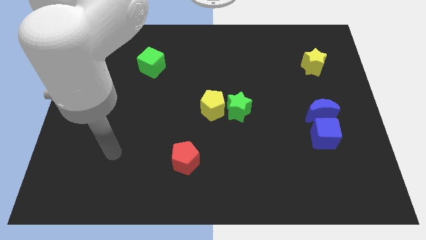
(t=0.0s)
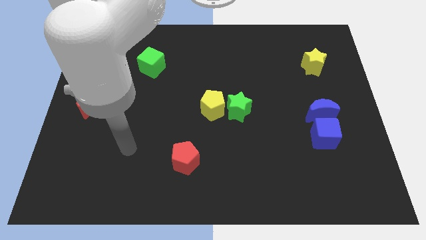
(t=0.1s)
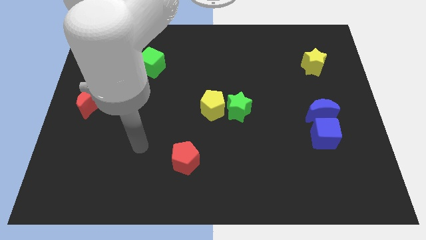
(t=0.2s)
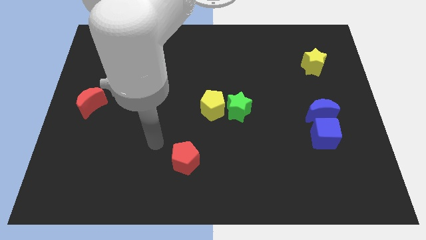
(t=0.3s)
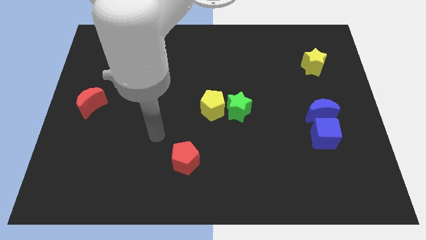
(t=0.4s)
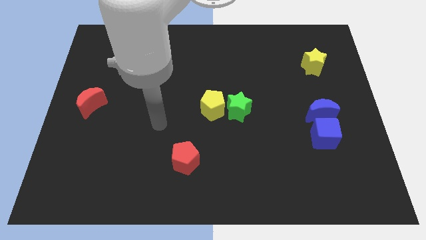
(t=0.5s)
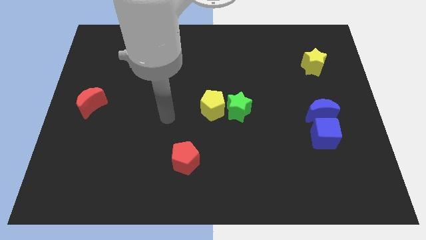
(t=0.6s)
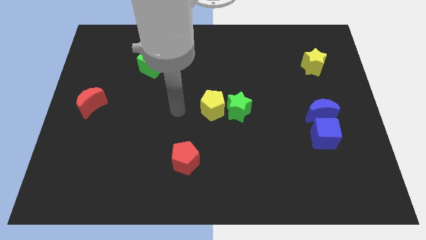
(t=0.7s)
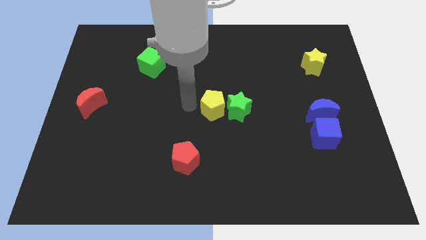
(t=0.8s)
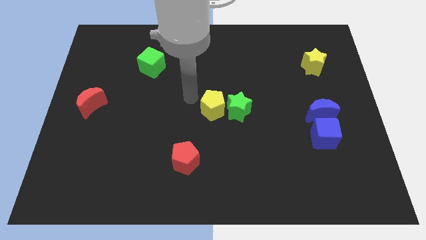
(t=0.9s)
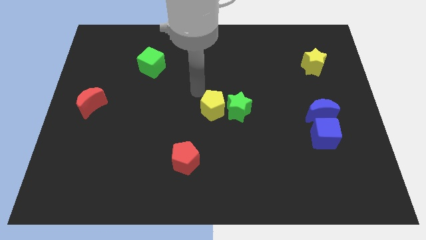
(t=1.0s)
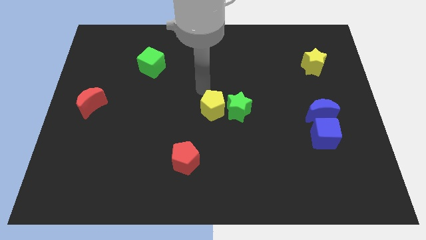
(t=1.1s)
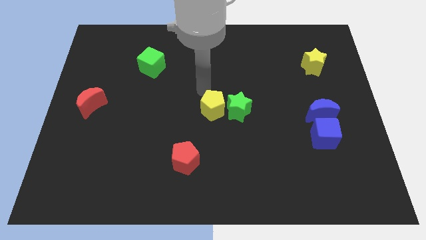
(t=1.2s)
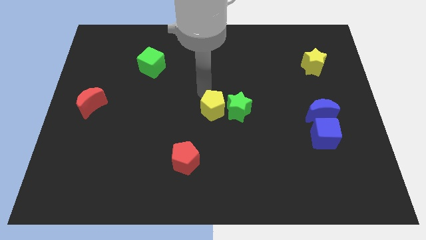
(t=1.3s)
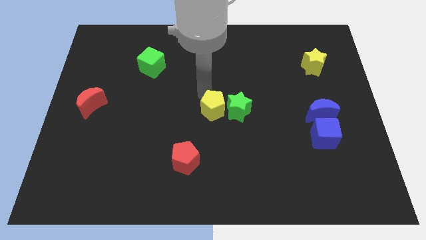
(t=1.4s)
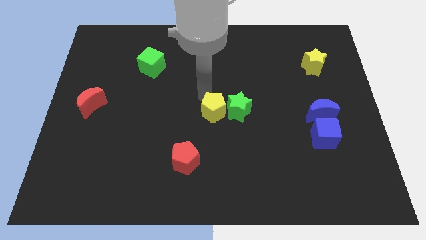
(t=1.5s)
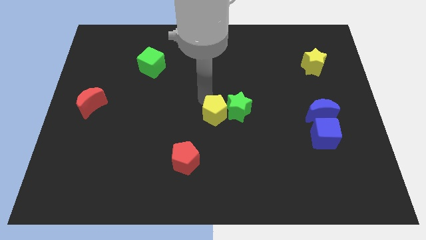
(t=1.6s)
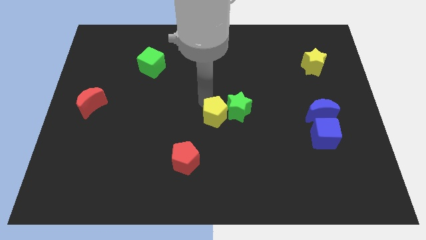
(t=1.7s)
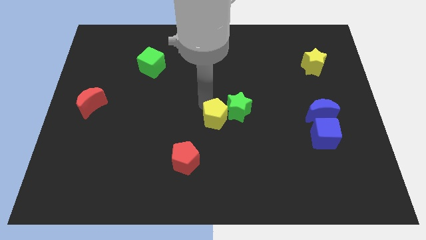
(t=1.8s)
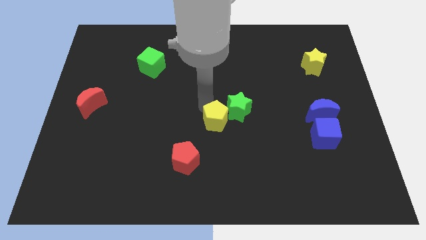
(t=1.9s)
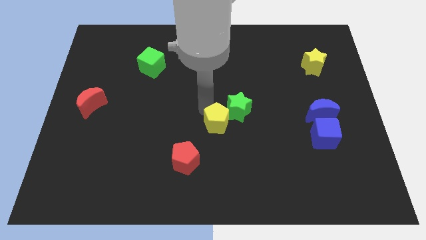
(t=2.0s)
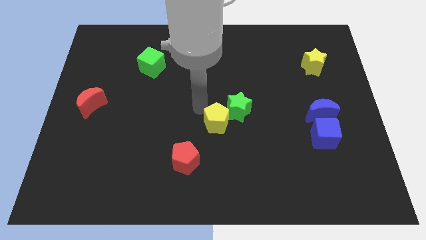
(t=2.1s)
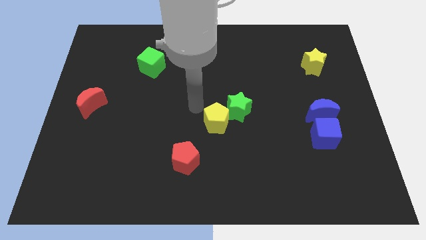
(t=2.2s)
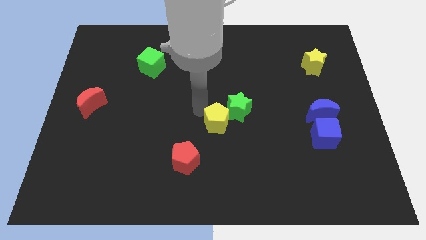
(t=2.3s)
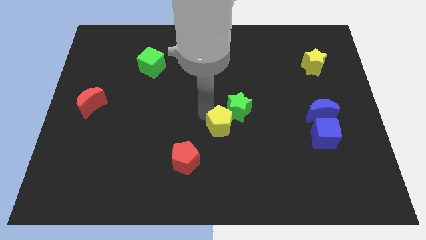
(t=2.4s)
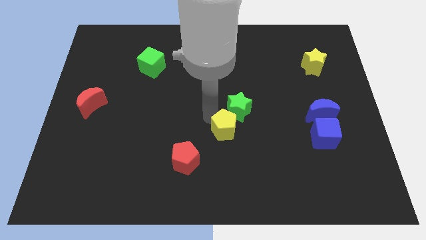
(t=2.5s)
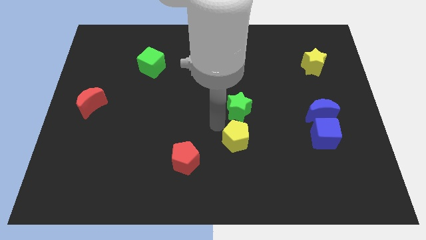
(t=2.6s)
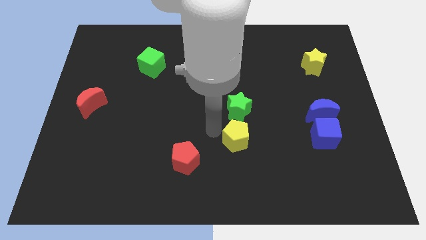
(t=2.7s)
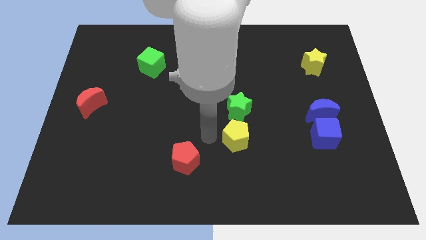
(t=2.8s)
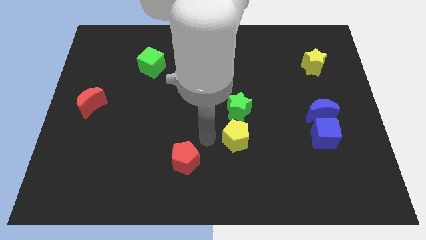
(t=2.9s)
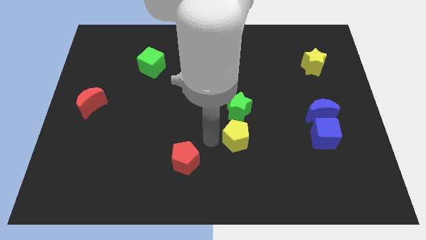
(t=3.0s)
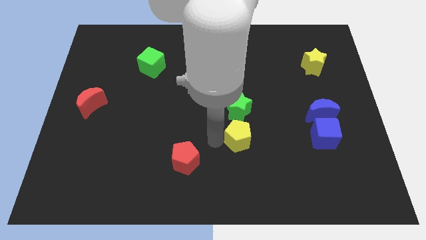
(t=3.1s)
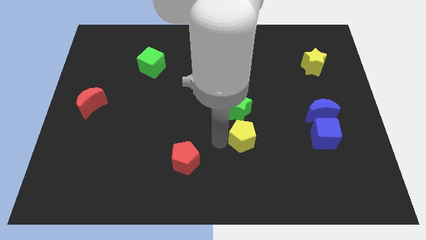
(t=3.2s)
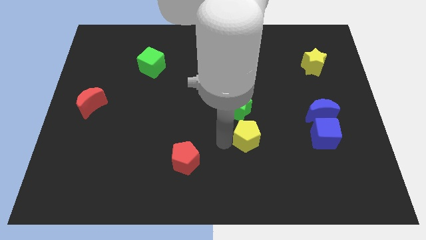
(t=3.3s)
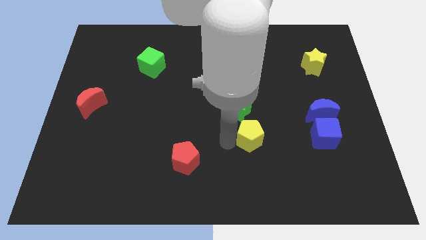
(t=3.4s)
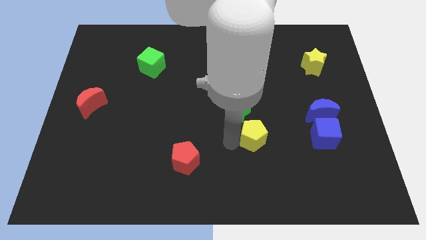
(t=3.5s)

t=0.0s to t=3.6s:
slide the yellow pentagon to the left side of the blue cube

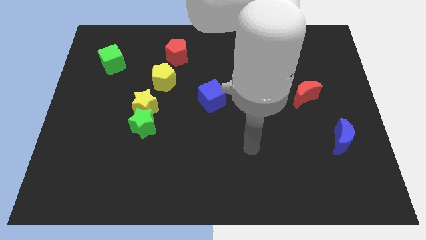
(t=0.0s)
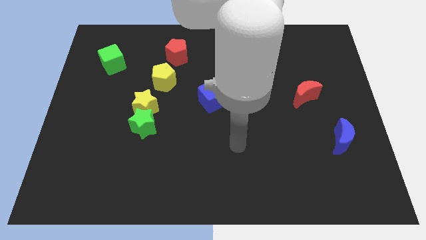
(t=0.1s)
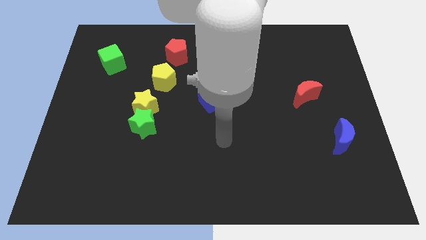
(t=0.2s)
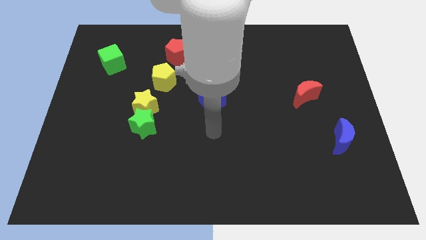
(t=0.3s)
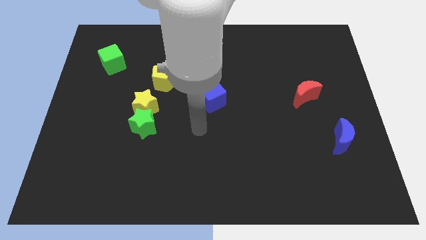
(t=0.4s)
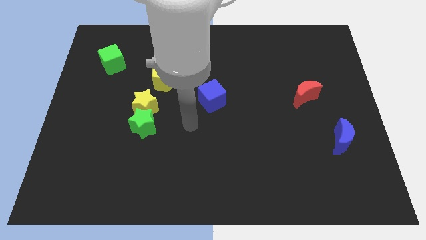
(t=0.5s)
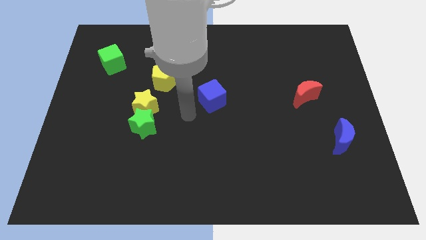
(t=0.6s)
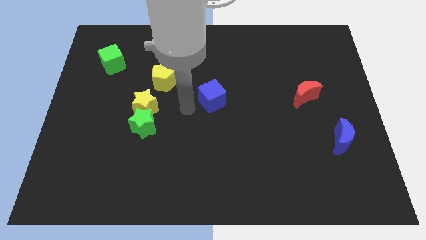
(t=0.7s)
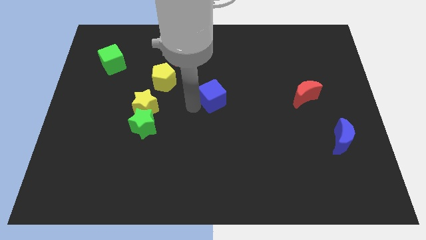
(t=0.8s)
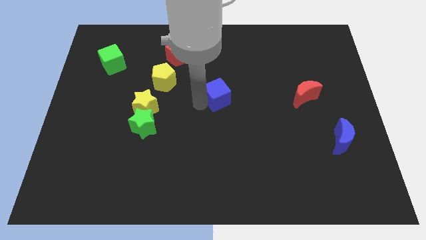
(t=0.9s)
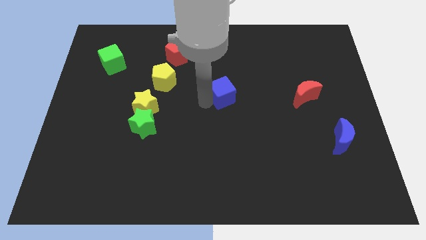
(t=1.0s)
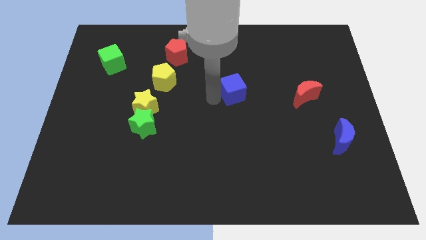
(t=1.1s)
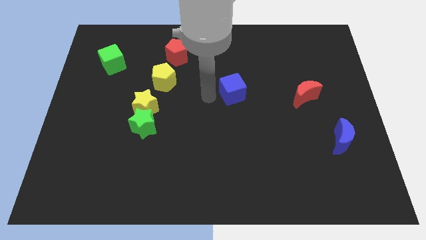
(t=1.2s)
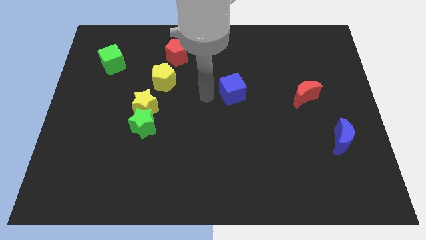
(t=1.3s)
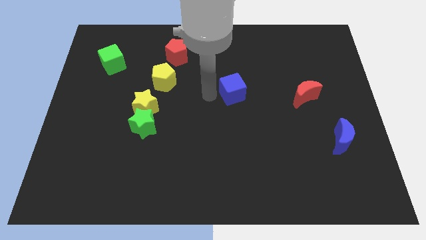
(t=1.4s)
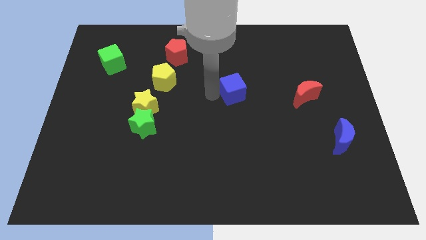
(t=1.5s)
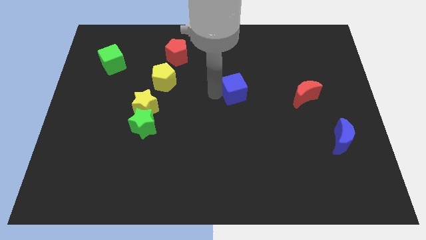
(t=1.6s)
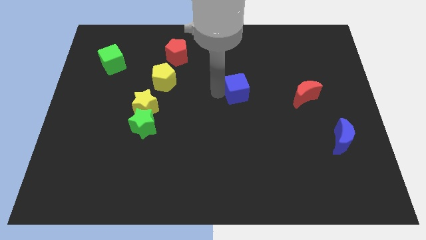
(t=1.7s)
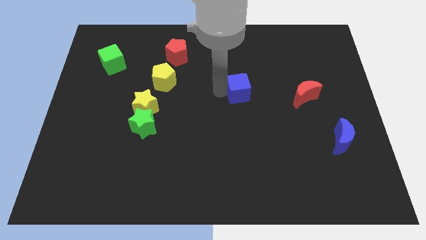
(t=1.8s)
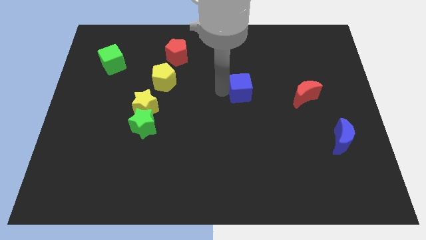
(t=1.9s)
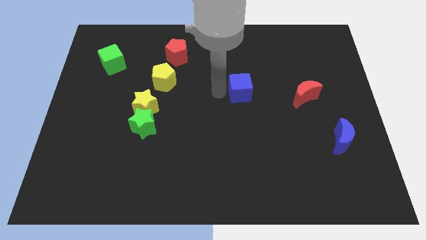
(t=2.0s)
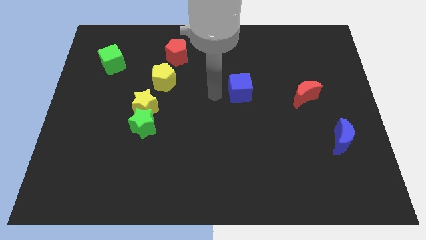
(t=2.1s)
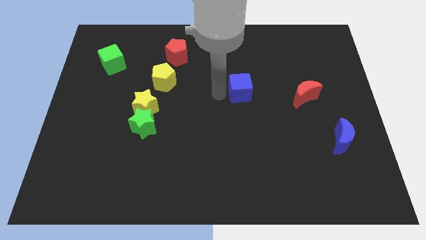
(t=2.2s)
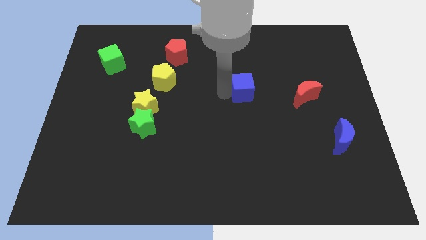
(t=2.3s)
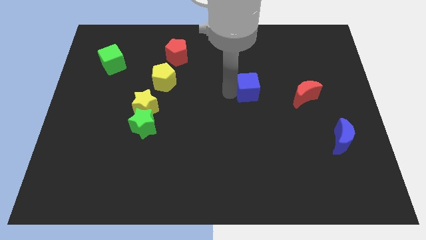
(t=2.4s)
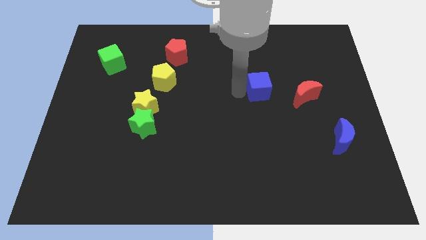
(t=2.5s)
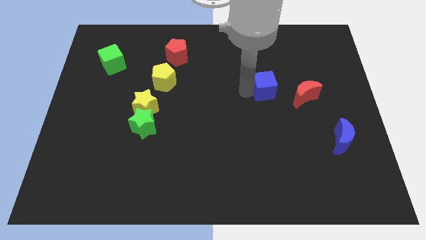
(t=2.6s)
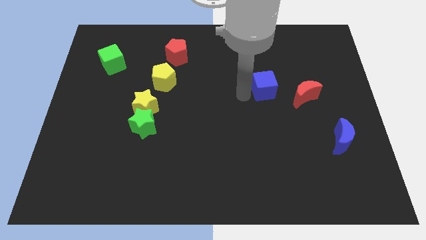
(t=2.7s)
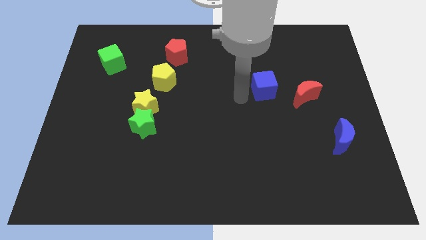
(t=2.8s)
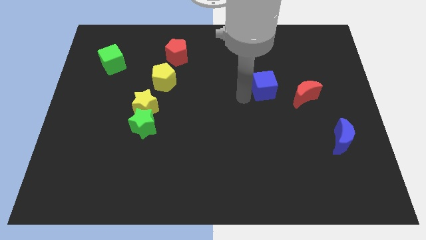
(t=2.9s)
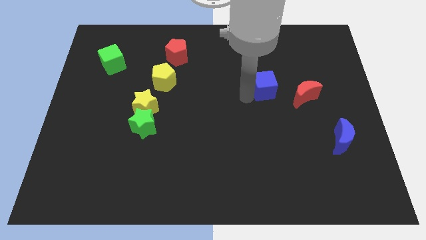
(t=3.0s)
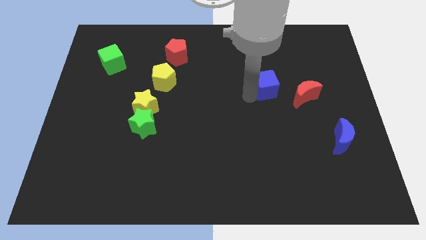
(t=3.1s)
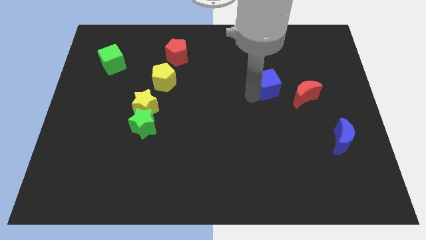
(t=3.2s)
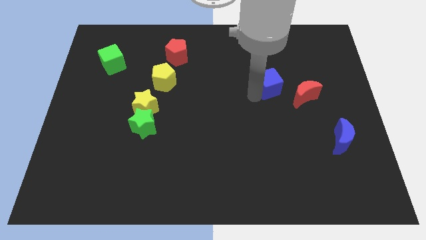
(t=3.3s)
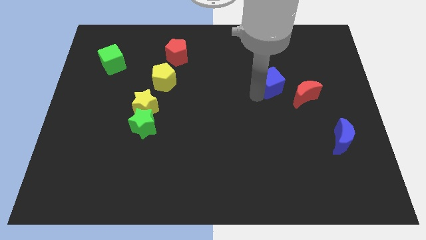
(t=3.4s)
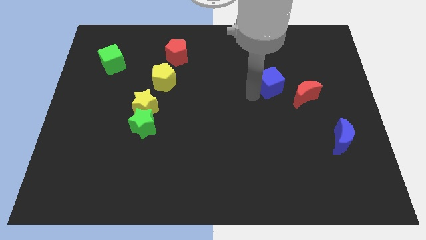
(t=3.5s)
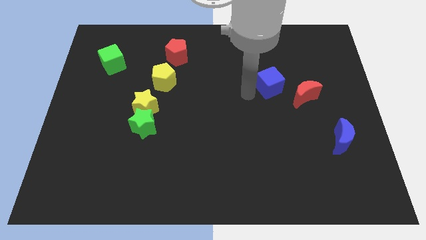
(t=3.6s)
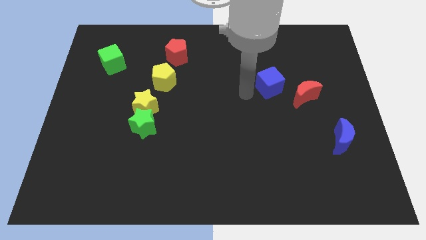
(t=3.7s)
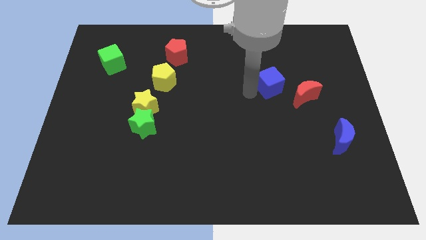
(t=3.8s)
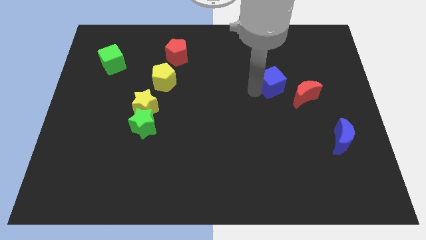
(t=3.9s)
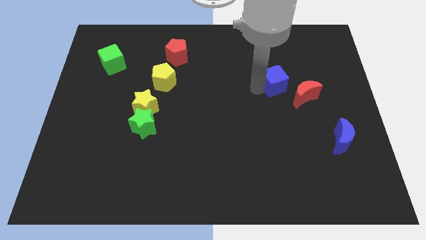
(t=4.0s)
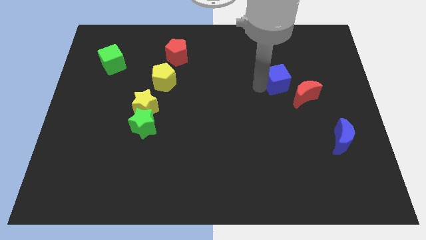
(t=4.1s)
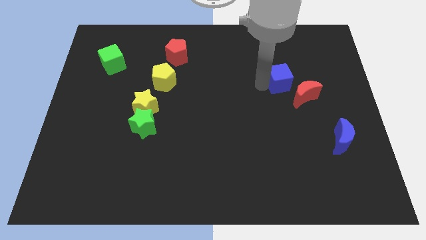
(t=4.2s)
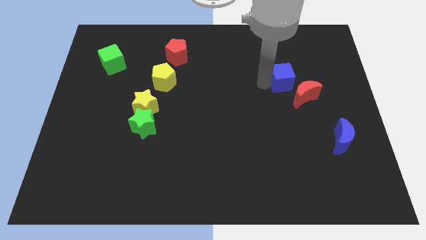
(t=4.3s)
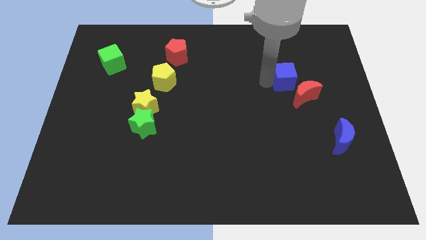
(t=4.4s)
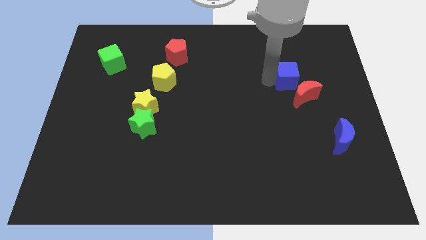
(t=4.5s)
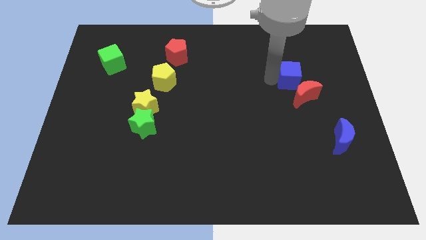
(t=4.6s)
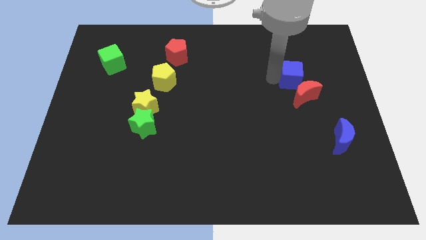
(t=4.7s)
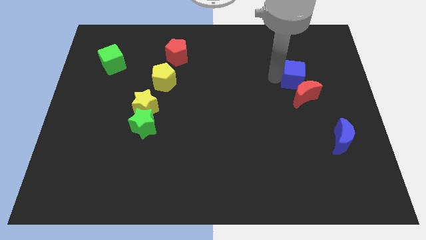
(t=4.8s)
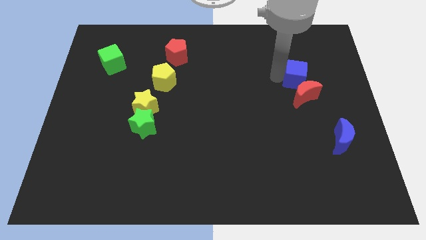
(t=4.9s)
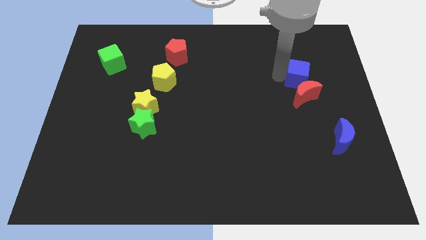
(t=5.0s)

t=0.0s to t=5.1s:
slide the blue cube to the top right side of the red moon
